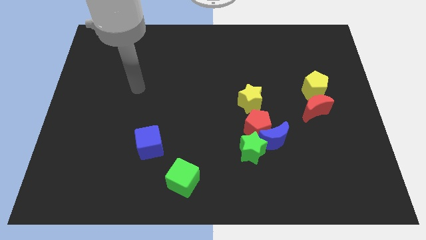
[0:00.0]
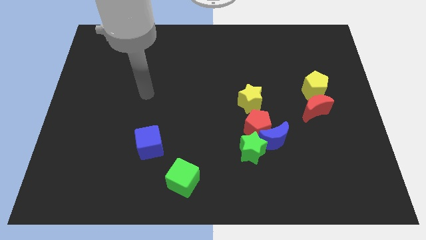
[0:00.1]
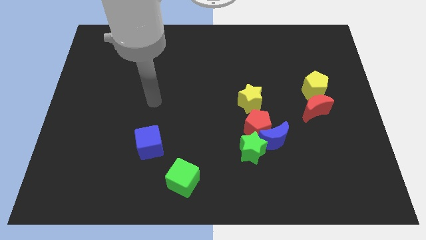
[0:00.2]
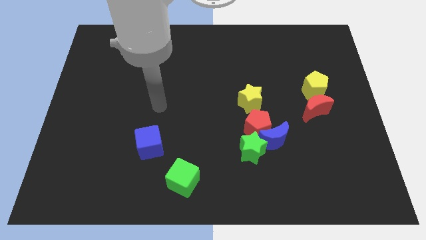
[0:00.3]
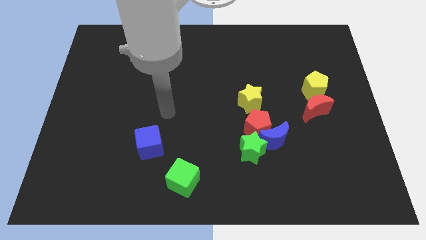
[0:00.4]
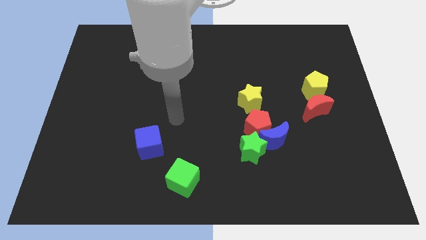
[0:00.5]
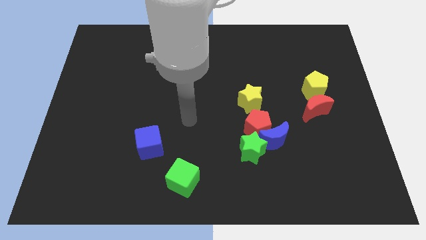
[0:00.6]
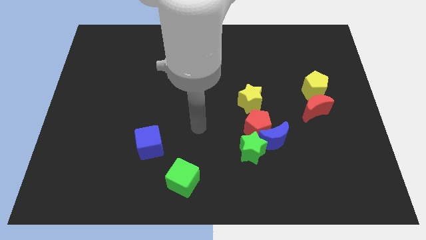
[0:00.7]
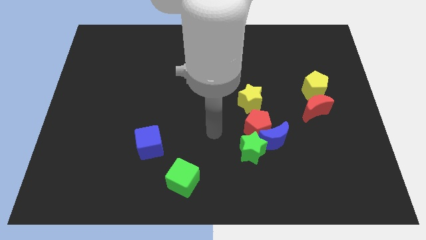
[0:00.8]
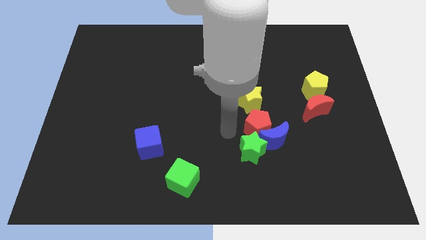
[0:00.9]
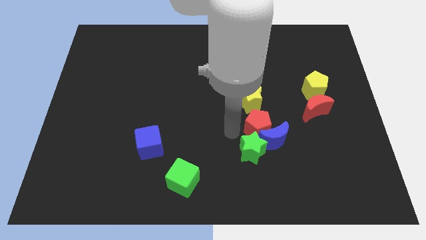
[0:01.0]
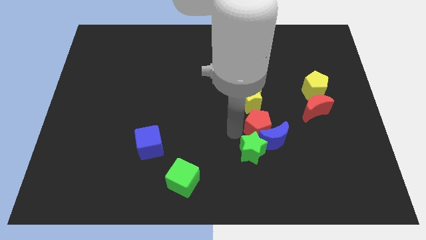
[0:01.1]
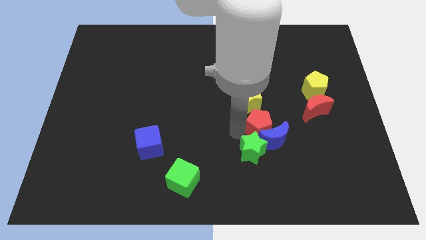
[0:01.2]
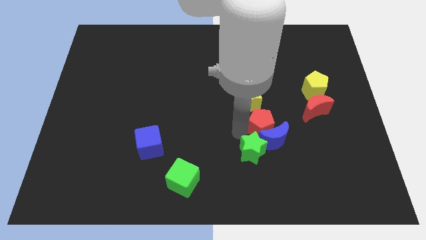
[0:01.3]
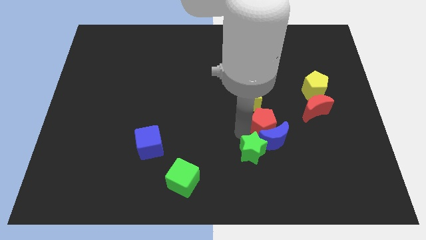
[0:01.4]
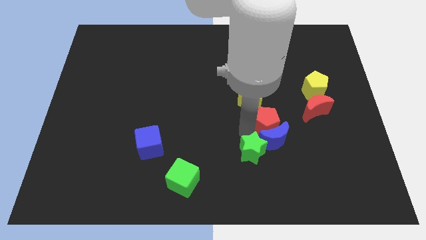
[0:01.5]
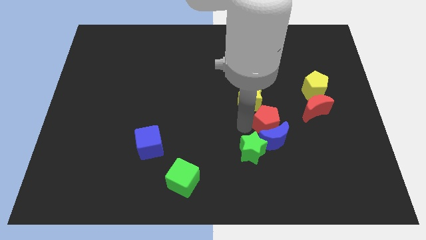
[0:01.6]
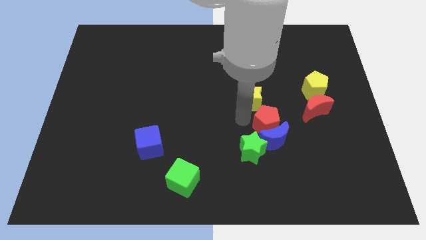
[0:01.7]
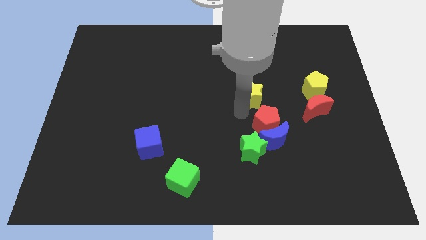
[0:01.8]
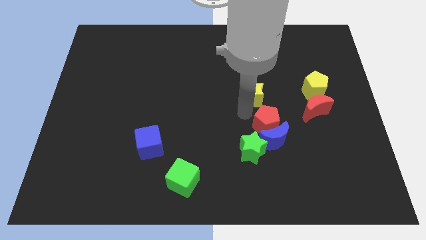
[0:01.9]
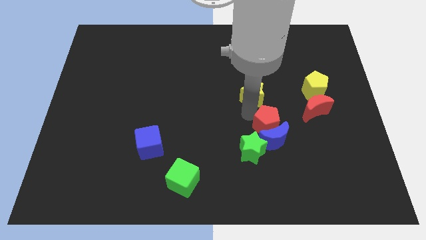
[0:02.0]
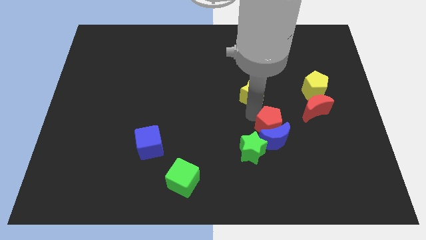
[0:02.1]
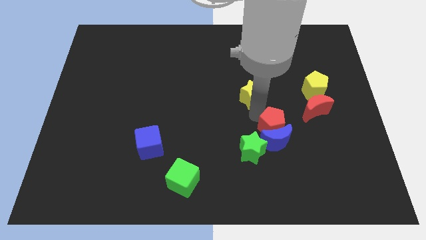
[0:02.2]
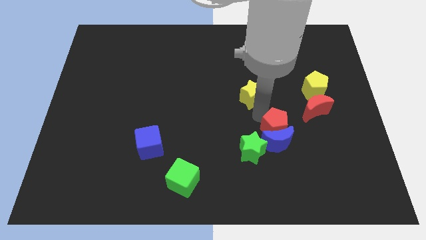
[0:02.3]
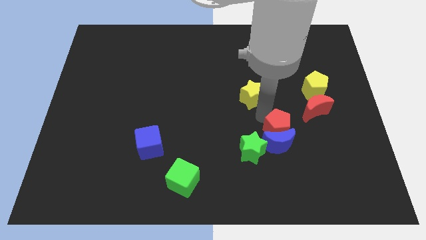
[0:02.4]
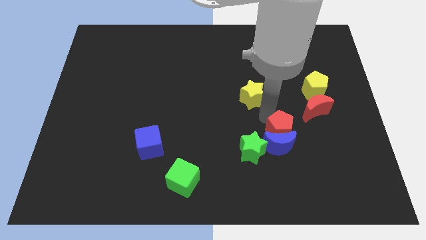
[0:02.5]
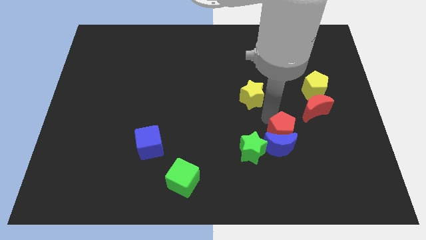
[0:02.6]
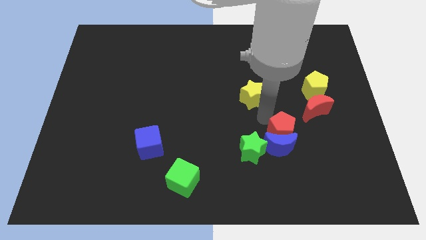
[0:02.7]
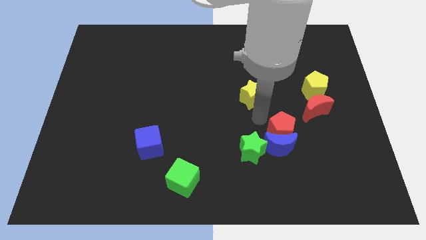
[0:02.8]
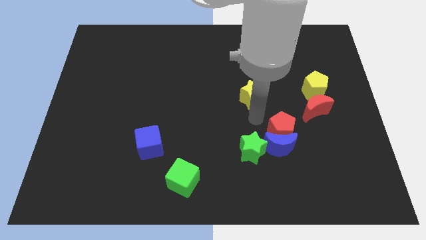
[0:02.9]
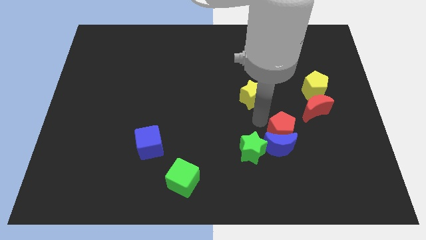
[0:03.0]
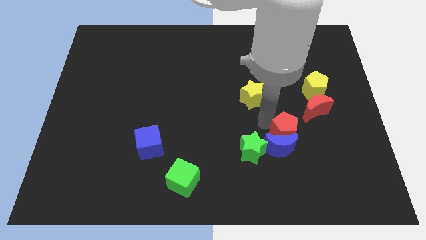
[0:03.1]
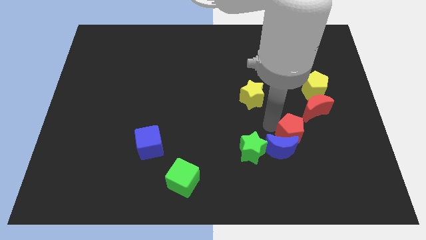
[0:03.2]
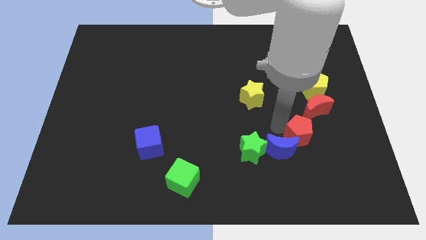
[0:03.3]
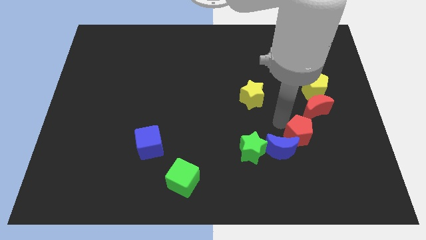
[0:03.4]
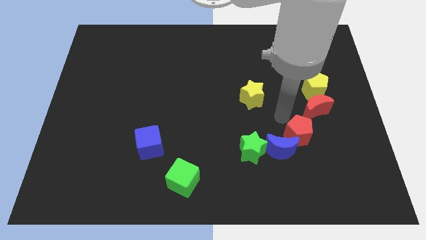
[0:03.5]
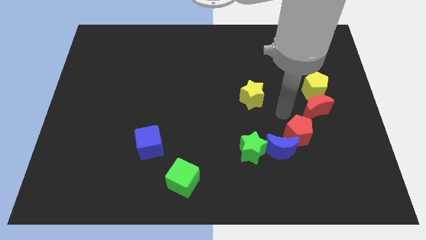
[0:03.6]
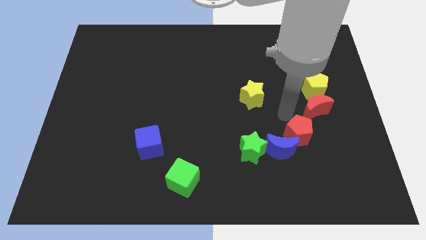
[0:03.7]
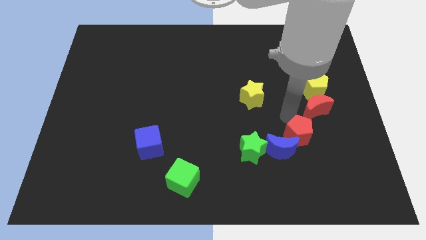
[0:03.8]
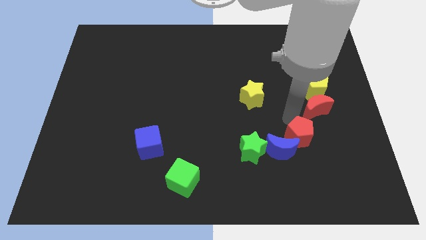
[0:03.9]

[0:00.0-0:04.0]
slightly slide the red pentagon diagonally downwards and to the right

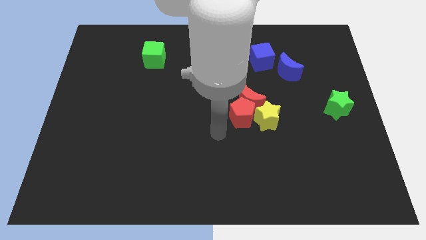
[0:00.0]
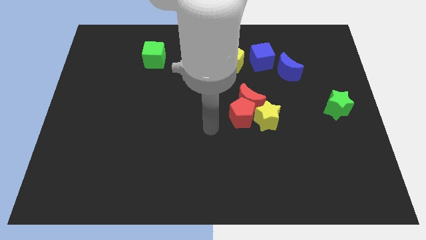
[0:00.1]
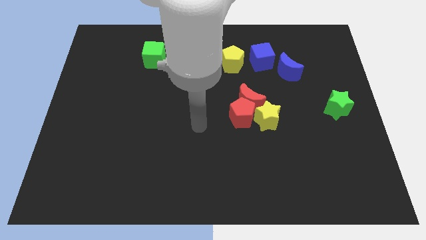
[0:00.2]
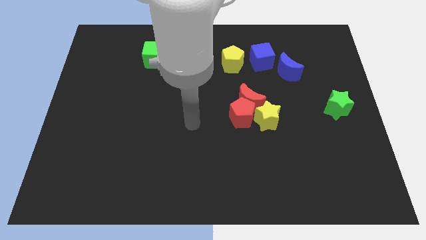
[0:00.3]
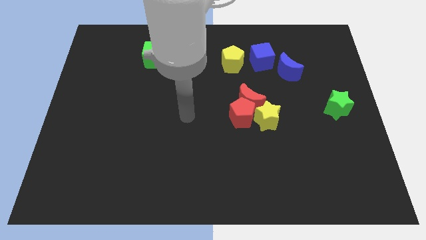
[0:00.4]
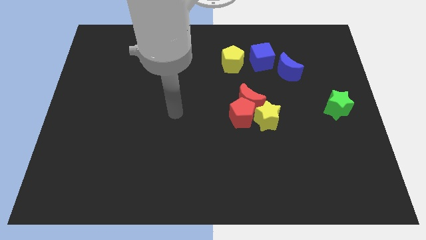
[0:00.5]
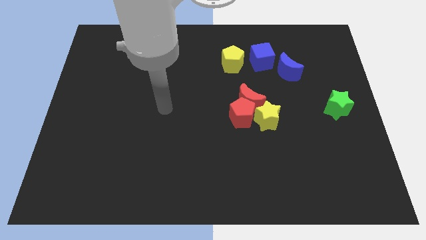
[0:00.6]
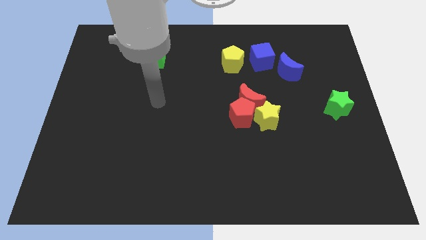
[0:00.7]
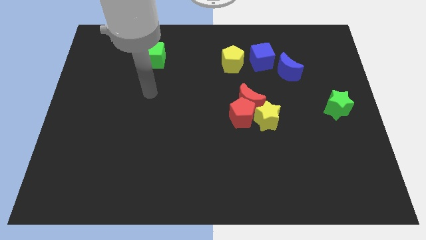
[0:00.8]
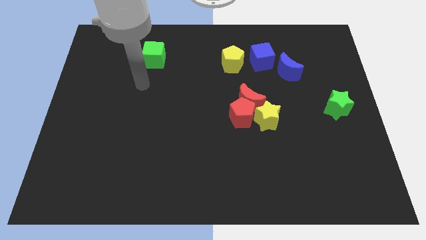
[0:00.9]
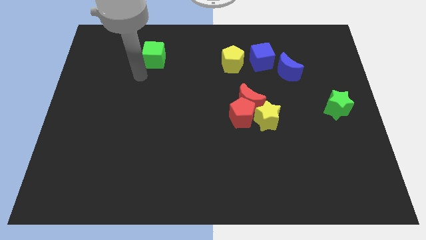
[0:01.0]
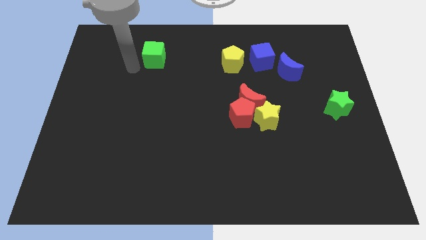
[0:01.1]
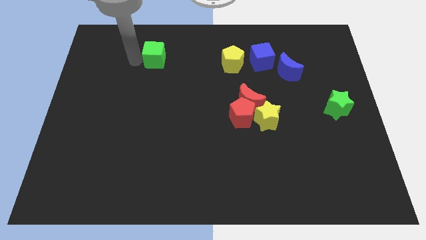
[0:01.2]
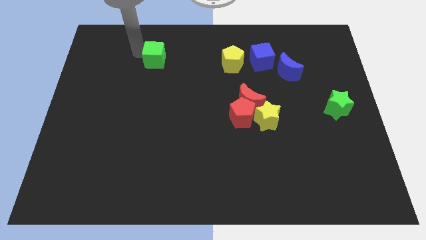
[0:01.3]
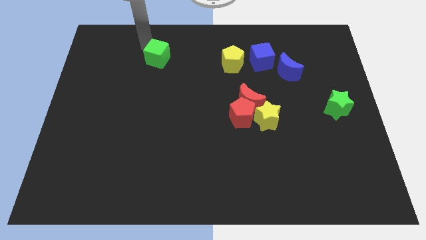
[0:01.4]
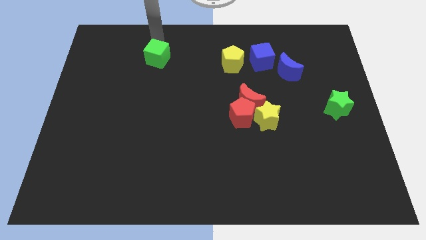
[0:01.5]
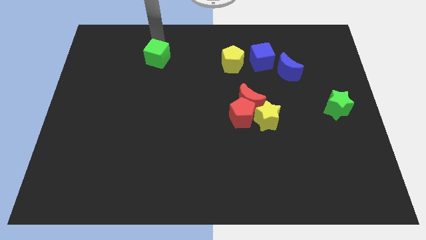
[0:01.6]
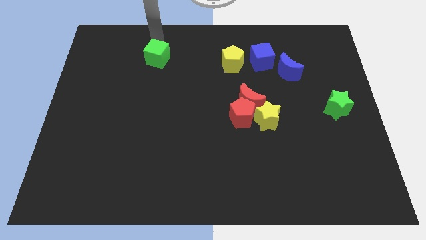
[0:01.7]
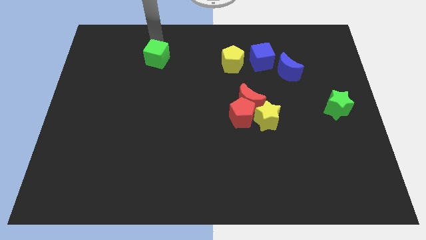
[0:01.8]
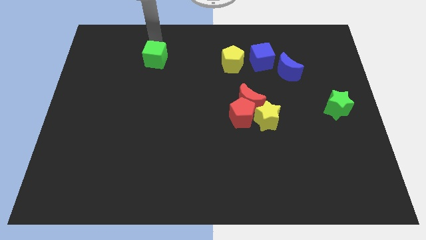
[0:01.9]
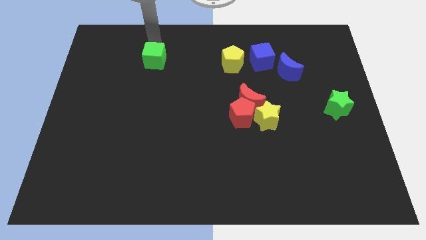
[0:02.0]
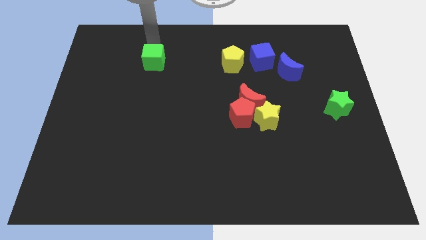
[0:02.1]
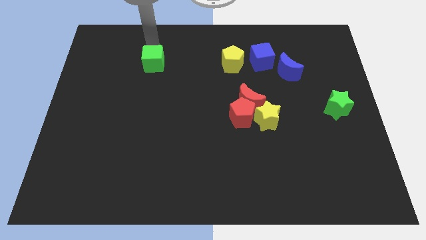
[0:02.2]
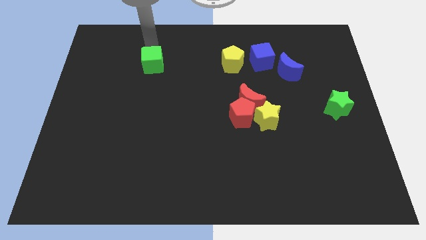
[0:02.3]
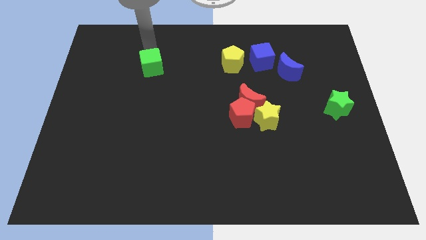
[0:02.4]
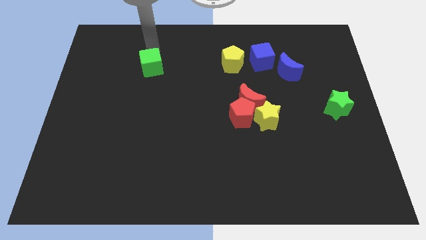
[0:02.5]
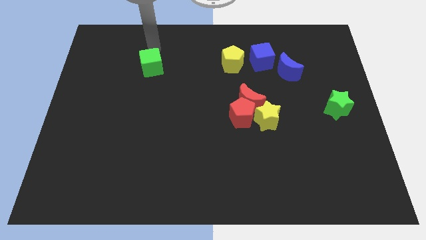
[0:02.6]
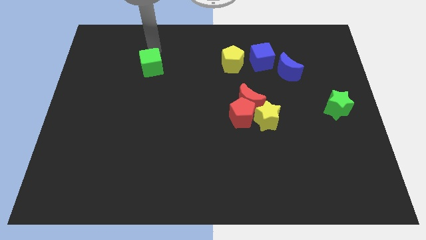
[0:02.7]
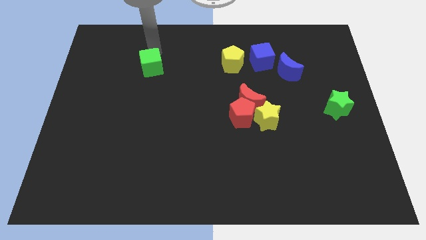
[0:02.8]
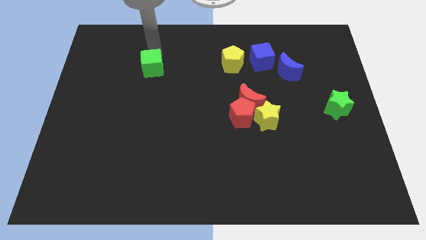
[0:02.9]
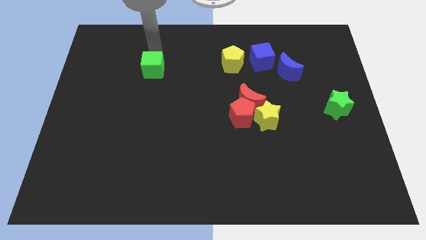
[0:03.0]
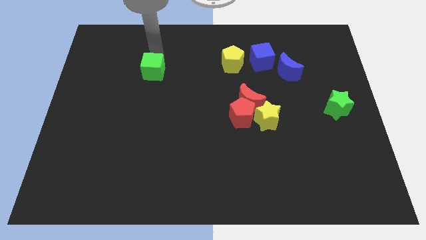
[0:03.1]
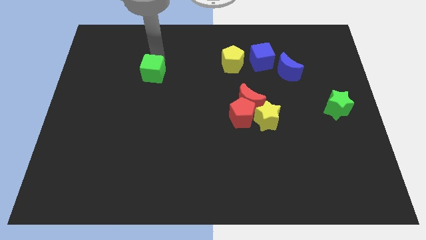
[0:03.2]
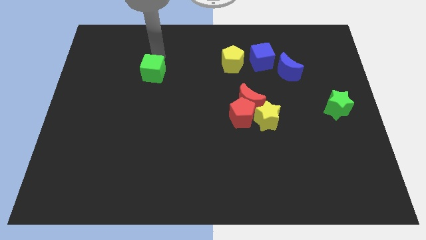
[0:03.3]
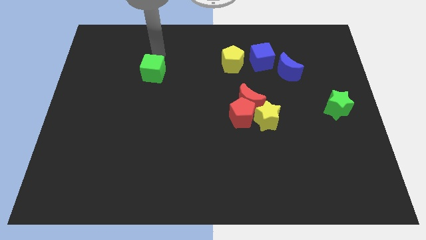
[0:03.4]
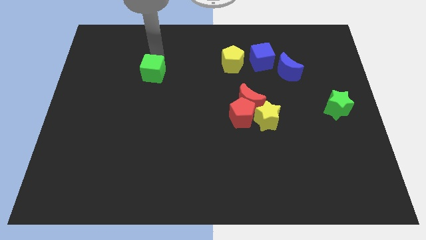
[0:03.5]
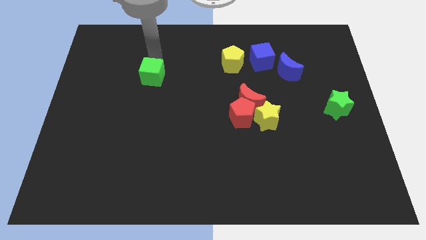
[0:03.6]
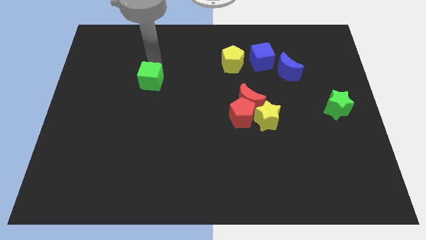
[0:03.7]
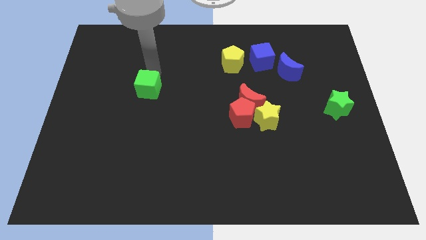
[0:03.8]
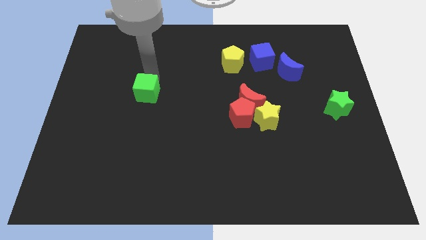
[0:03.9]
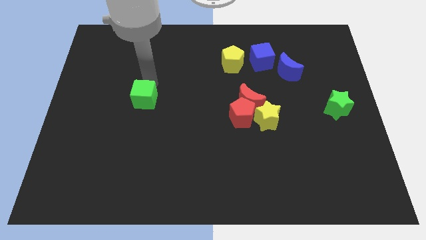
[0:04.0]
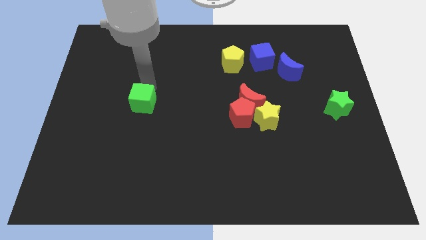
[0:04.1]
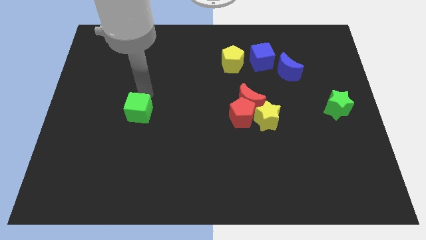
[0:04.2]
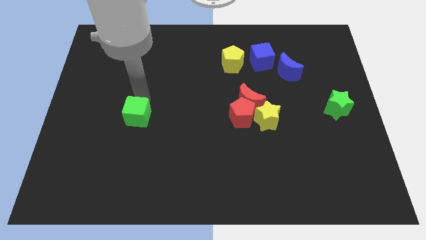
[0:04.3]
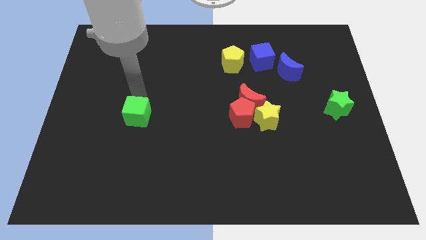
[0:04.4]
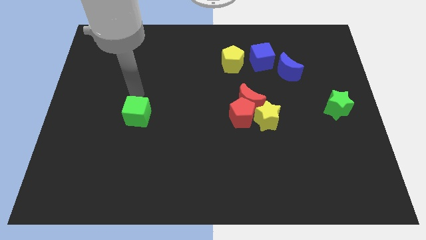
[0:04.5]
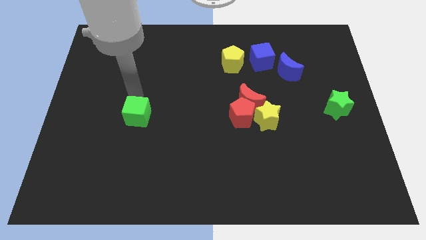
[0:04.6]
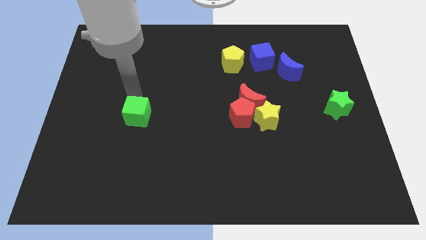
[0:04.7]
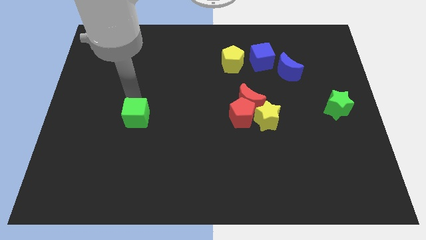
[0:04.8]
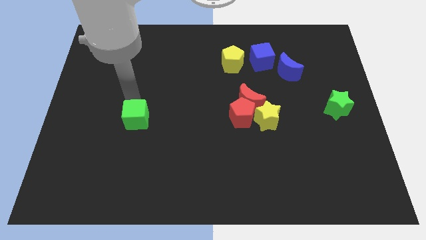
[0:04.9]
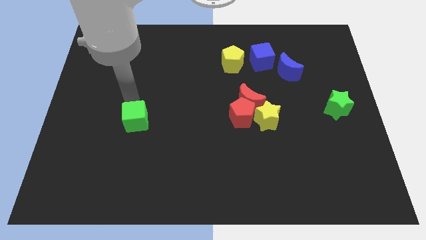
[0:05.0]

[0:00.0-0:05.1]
slide the green cube down
